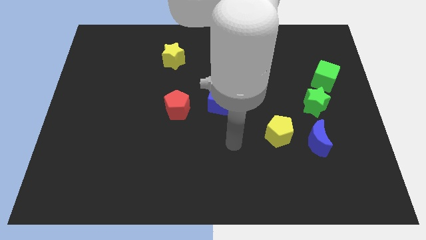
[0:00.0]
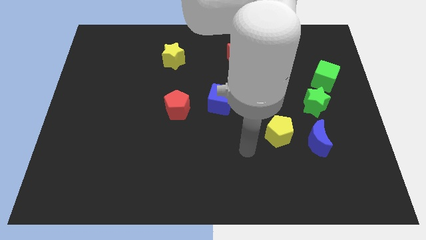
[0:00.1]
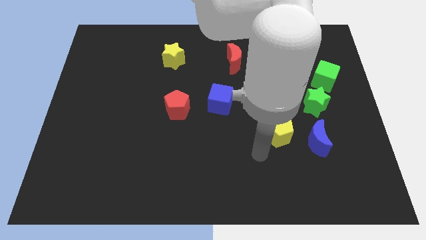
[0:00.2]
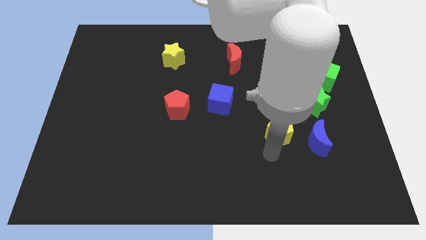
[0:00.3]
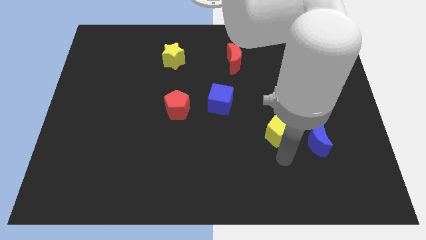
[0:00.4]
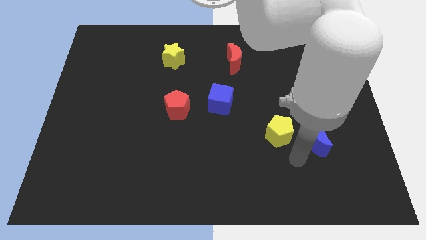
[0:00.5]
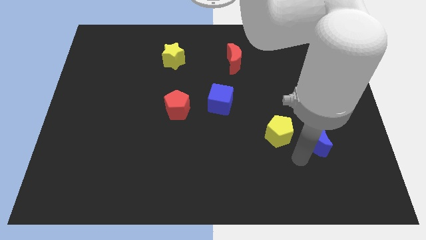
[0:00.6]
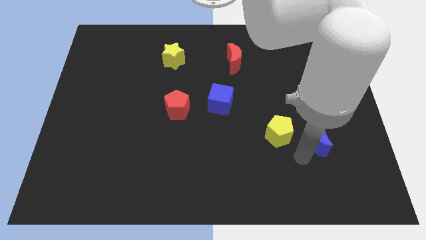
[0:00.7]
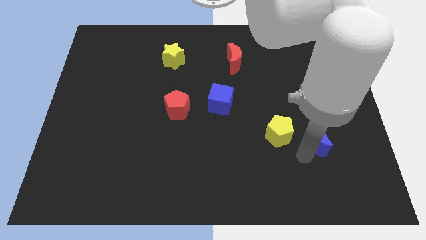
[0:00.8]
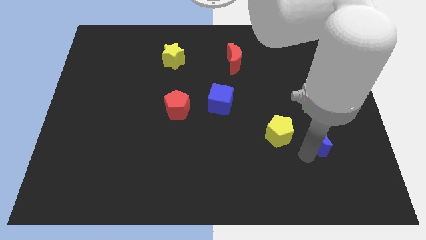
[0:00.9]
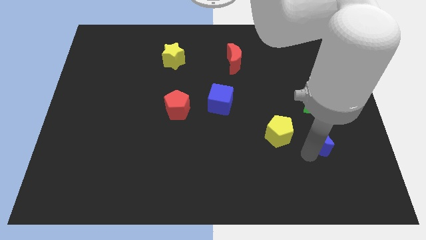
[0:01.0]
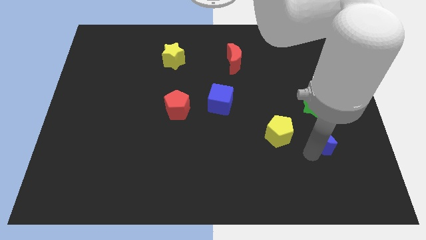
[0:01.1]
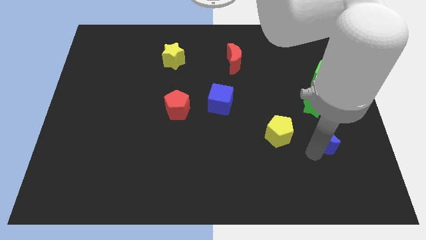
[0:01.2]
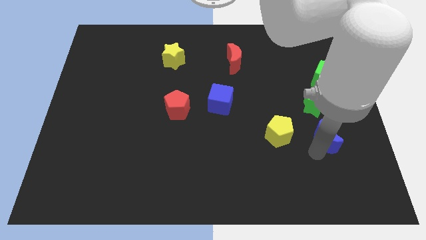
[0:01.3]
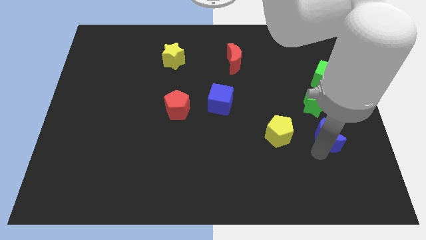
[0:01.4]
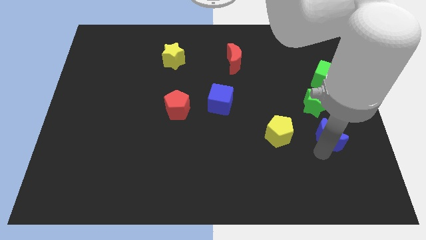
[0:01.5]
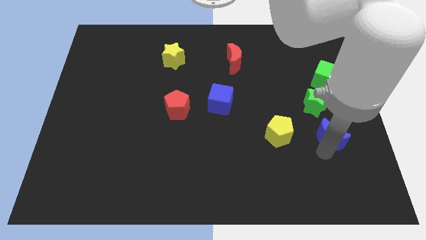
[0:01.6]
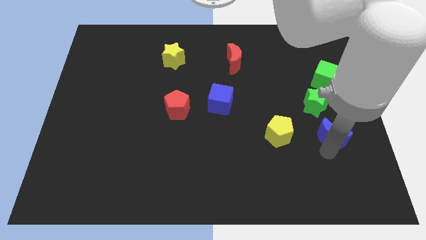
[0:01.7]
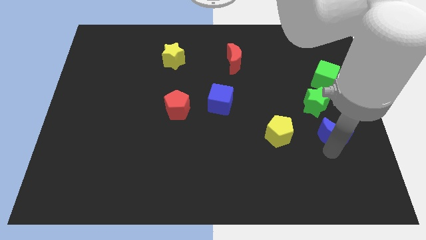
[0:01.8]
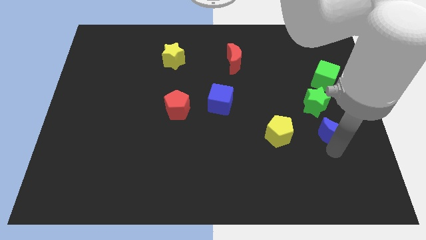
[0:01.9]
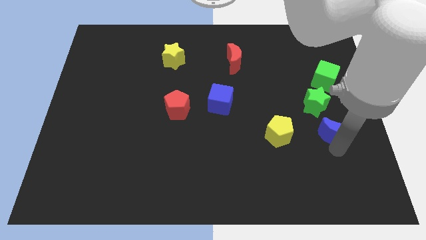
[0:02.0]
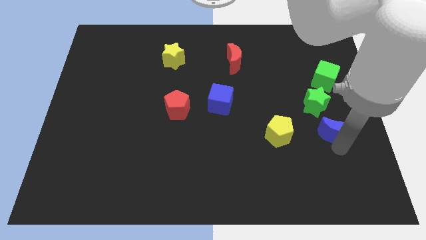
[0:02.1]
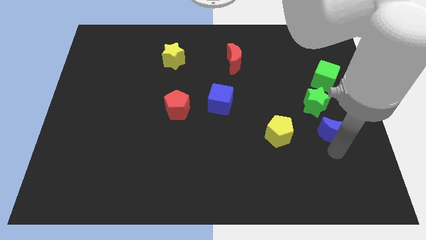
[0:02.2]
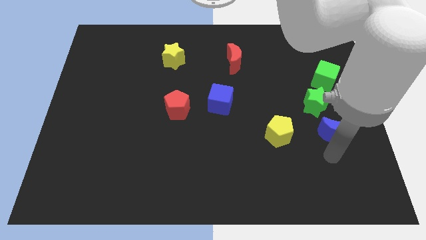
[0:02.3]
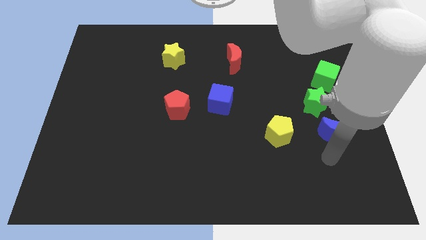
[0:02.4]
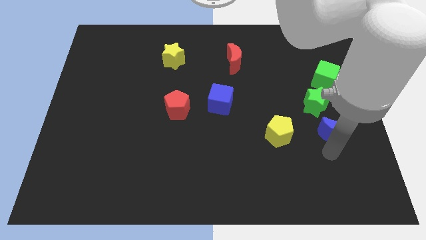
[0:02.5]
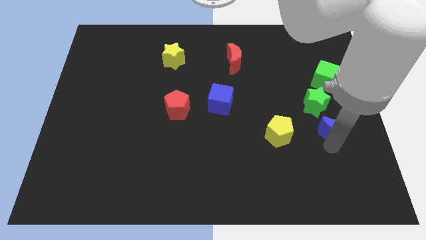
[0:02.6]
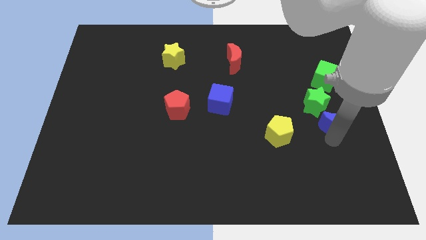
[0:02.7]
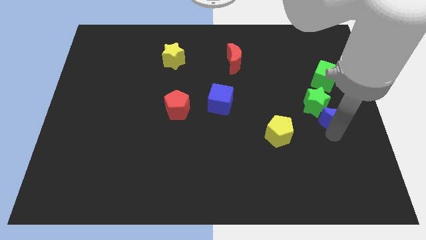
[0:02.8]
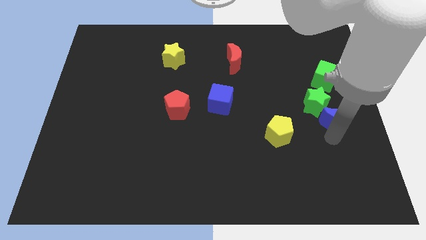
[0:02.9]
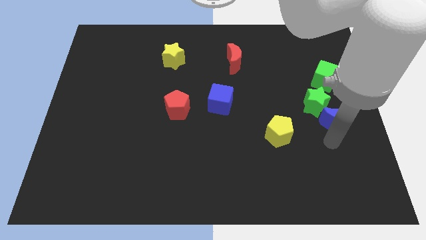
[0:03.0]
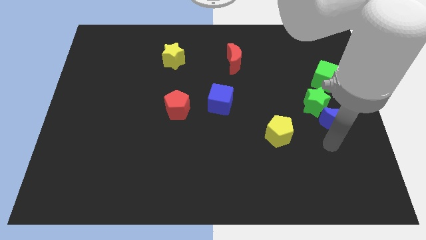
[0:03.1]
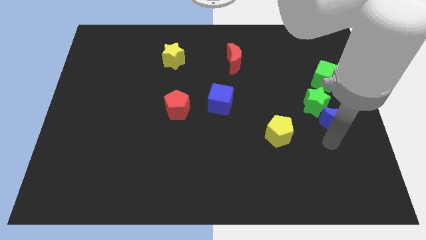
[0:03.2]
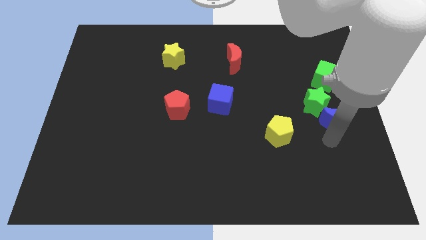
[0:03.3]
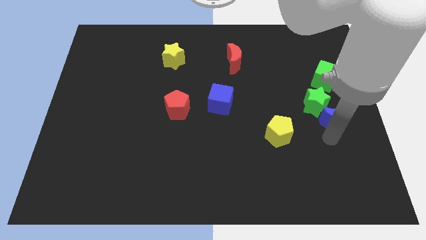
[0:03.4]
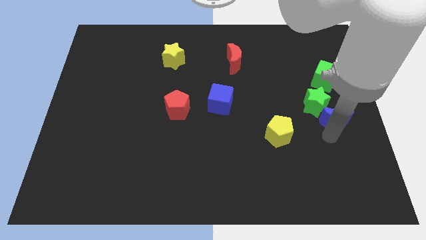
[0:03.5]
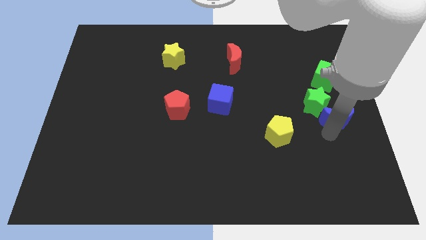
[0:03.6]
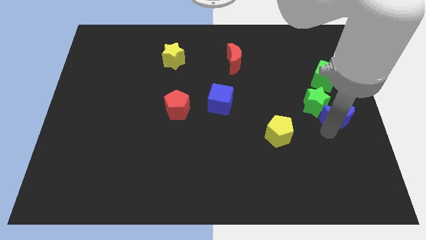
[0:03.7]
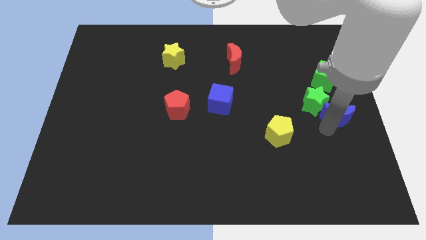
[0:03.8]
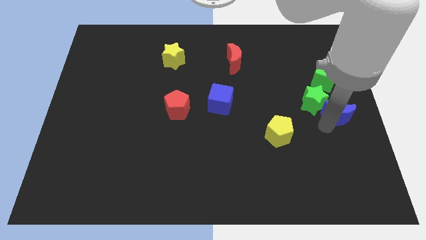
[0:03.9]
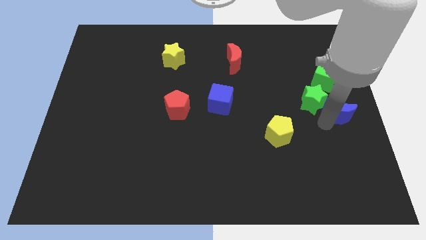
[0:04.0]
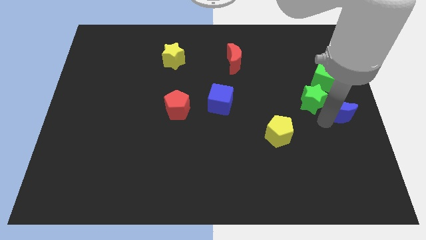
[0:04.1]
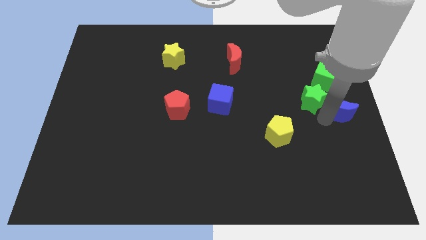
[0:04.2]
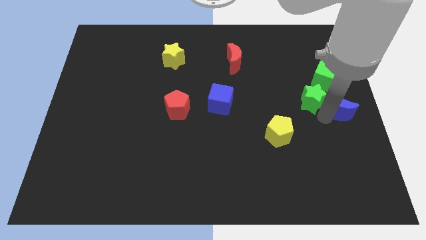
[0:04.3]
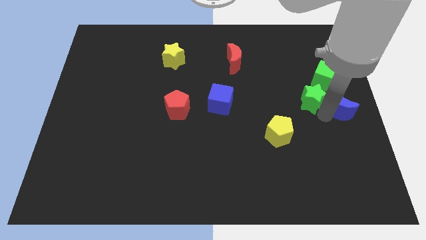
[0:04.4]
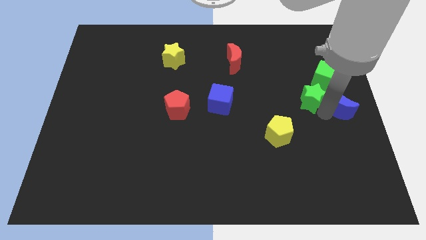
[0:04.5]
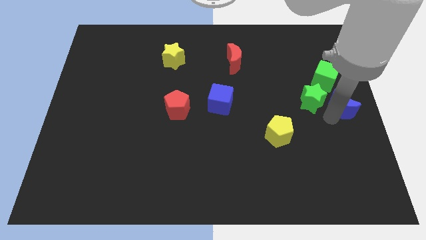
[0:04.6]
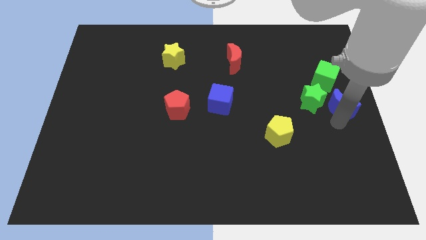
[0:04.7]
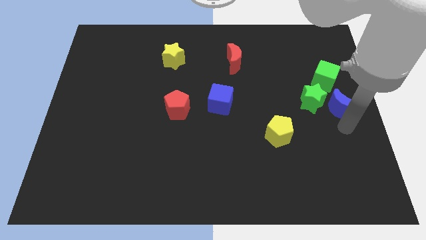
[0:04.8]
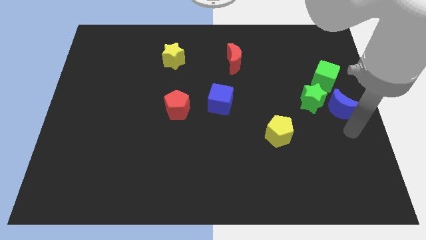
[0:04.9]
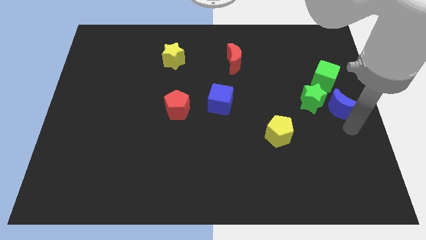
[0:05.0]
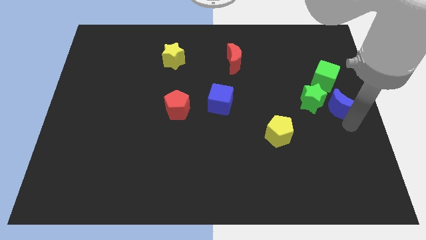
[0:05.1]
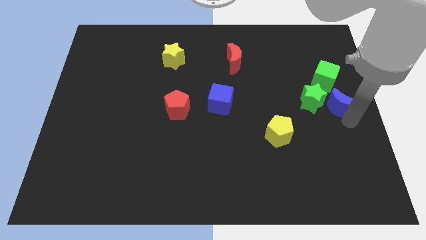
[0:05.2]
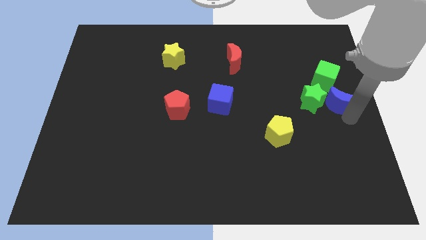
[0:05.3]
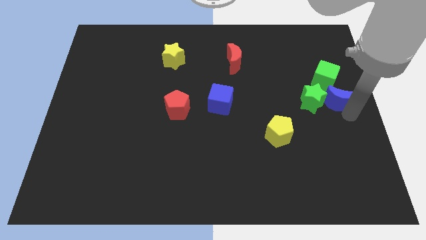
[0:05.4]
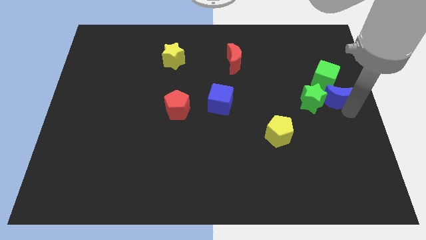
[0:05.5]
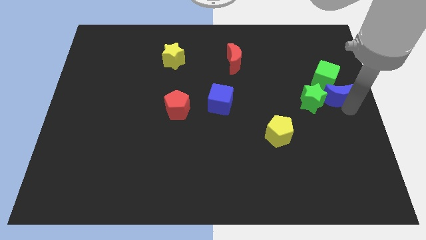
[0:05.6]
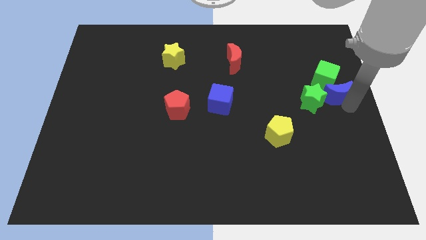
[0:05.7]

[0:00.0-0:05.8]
slide the blue moon to the green cube

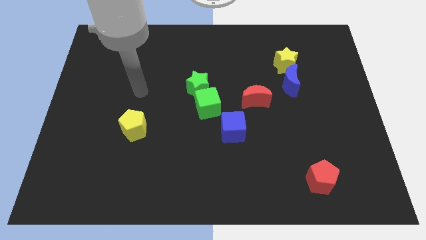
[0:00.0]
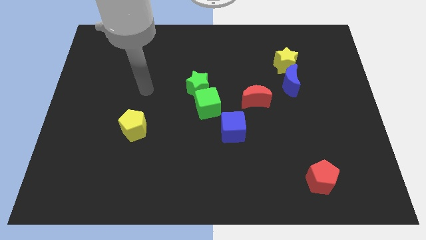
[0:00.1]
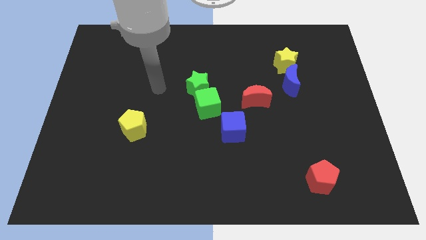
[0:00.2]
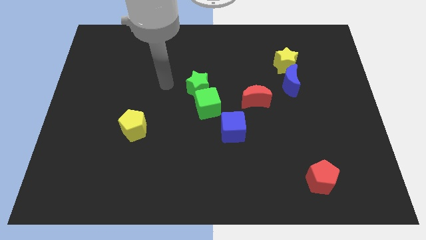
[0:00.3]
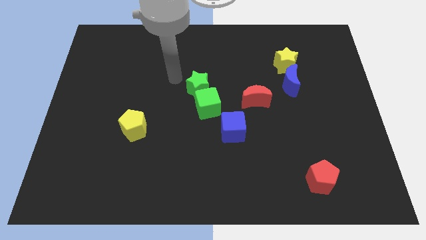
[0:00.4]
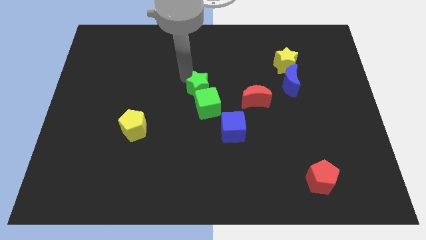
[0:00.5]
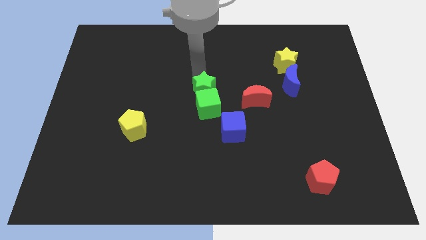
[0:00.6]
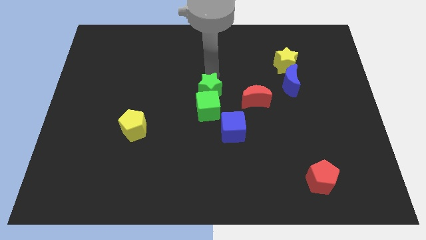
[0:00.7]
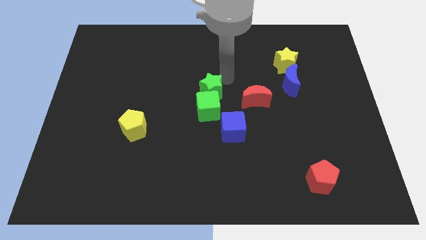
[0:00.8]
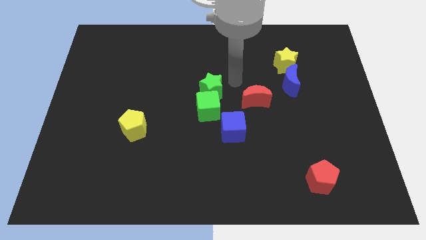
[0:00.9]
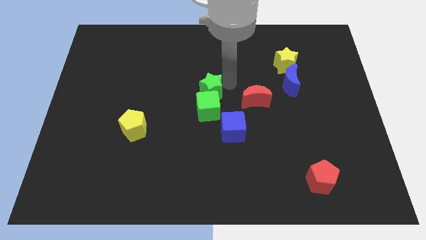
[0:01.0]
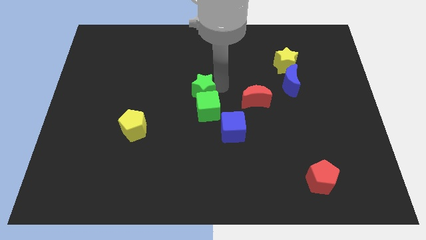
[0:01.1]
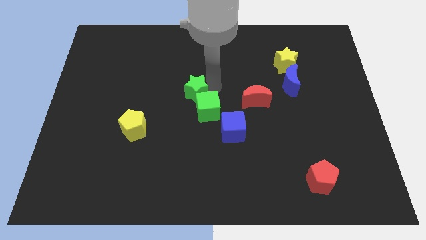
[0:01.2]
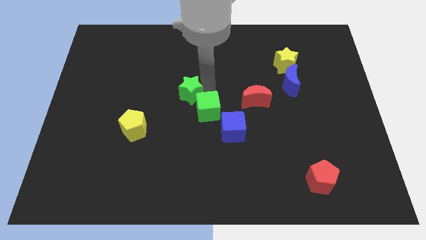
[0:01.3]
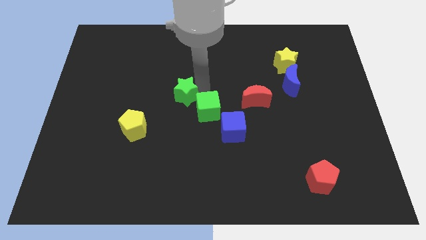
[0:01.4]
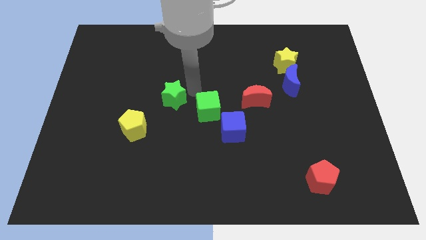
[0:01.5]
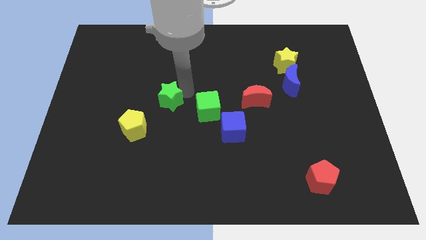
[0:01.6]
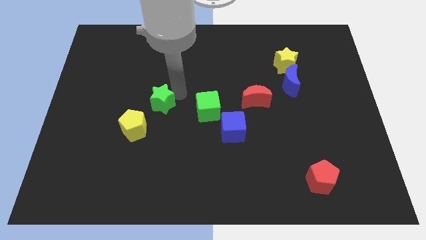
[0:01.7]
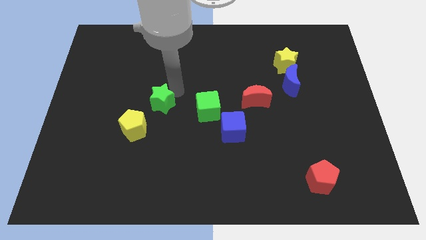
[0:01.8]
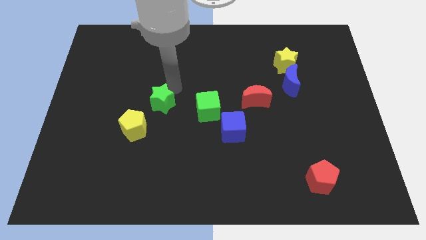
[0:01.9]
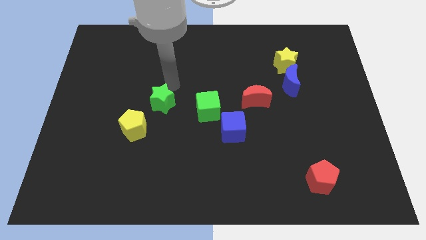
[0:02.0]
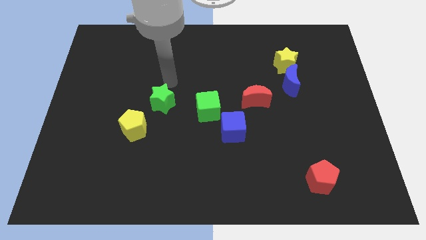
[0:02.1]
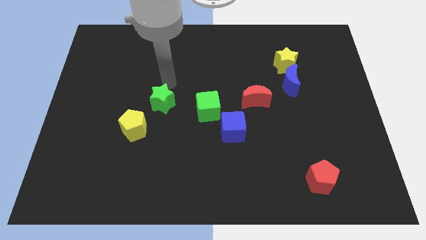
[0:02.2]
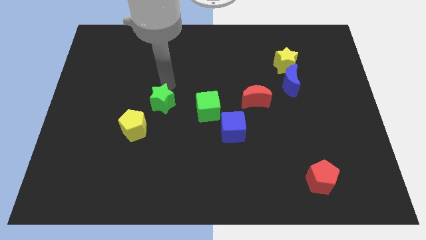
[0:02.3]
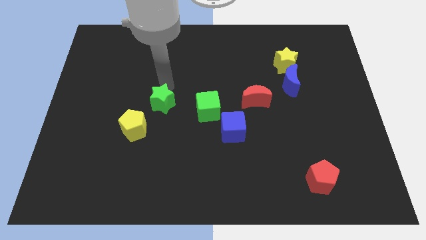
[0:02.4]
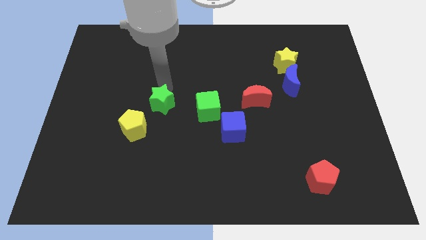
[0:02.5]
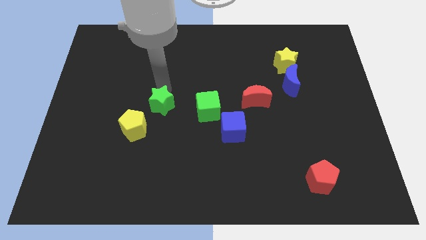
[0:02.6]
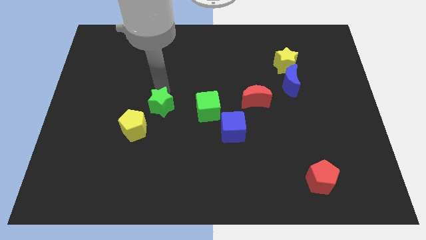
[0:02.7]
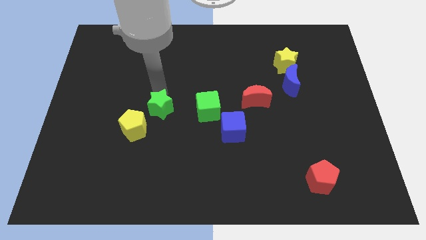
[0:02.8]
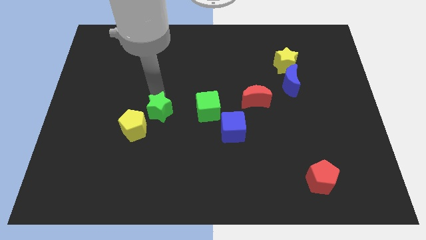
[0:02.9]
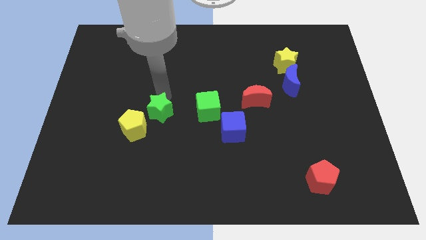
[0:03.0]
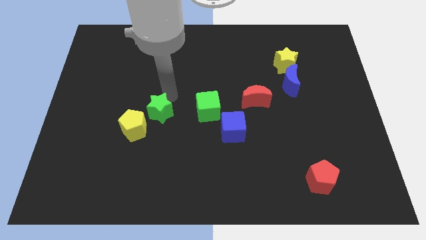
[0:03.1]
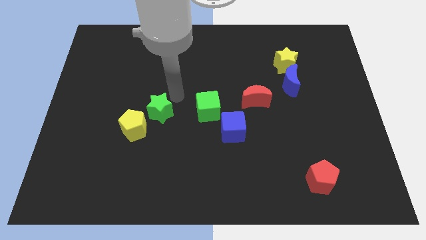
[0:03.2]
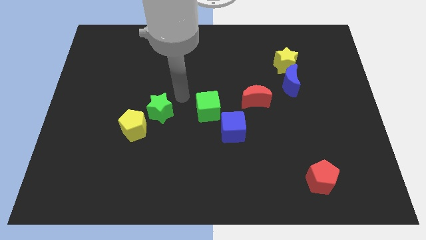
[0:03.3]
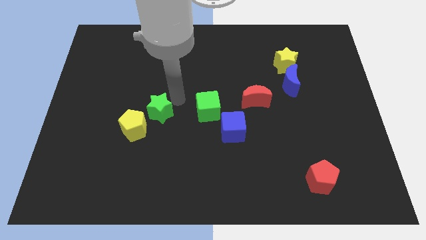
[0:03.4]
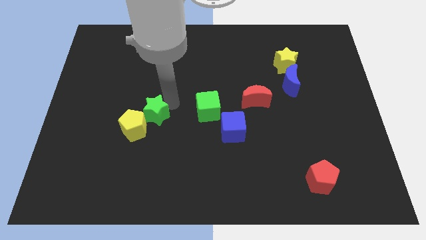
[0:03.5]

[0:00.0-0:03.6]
move the green star to the yellow pentagon
